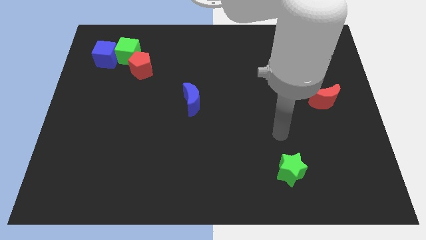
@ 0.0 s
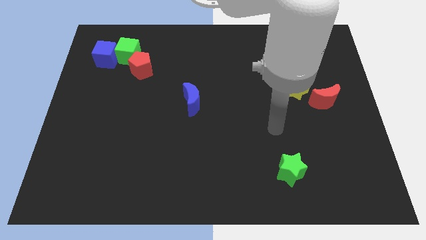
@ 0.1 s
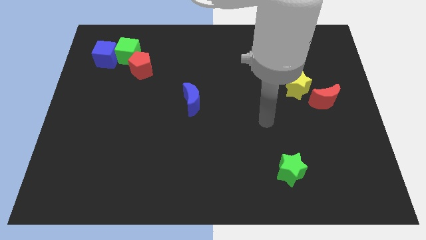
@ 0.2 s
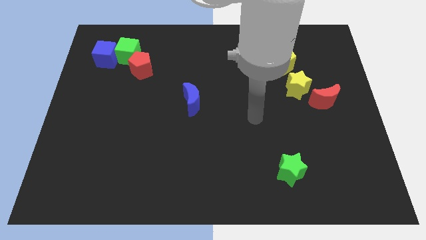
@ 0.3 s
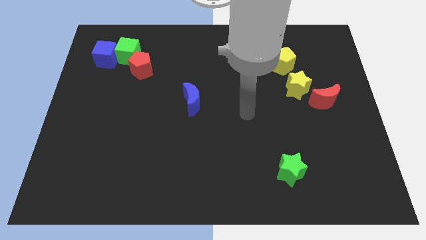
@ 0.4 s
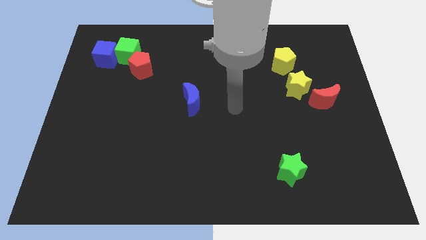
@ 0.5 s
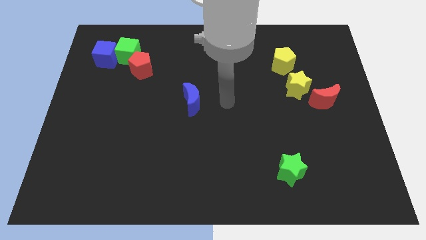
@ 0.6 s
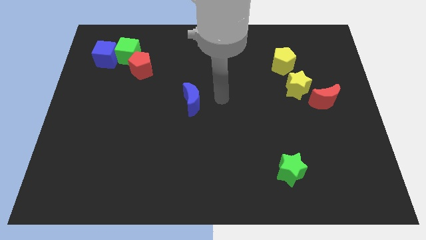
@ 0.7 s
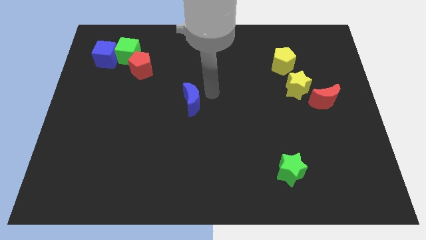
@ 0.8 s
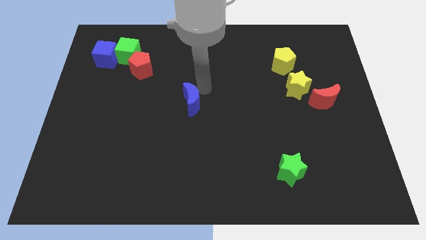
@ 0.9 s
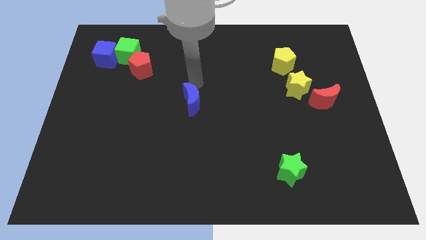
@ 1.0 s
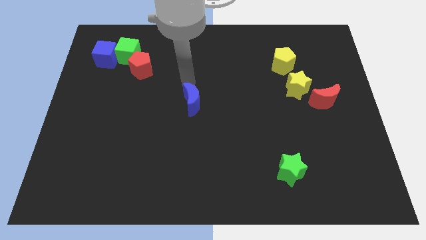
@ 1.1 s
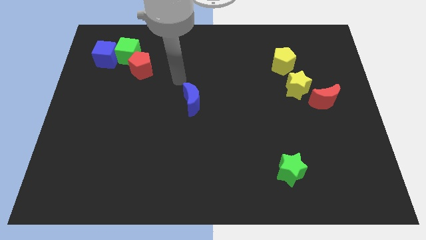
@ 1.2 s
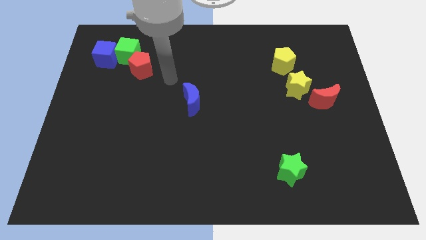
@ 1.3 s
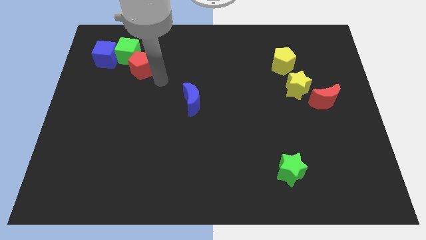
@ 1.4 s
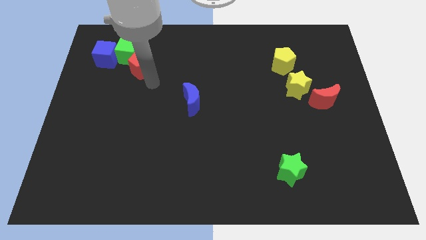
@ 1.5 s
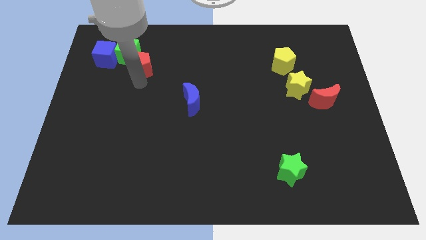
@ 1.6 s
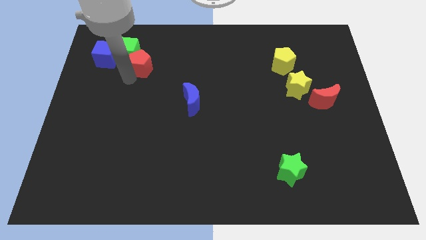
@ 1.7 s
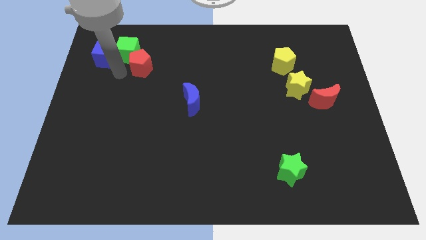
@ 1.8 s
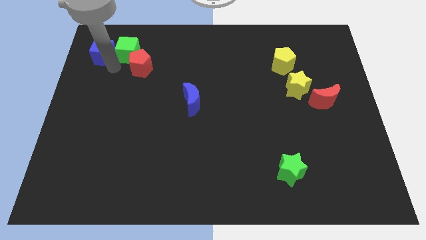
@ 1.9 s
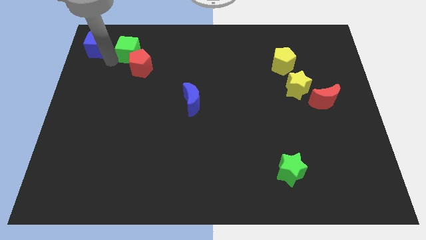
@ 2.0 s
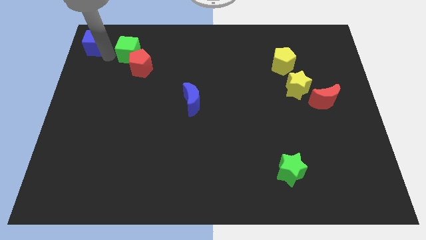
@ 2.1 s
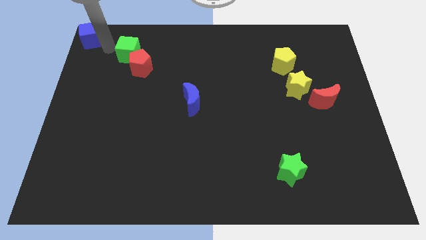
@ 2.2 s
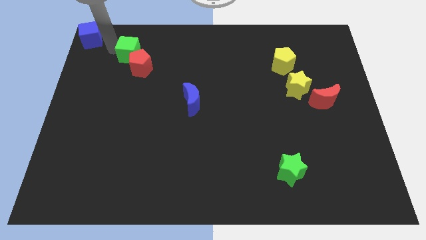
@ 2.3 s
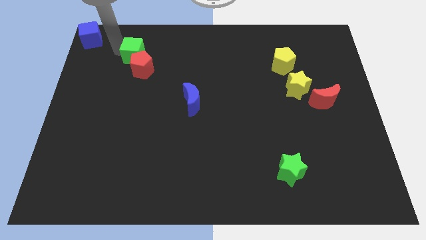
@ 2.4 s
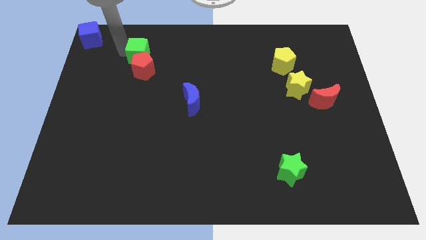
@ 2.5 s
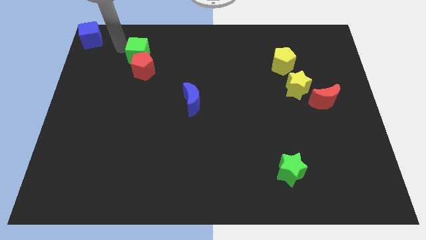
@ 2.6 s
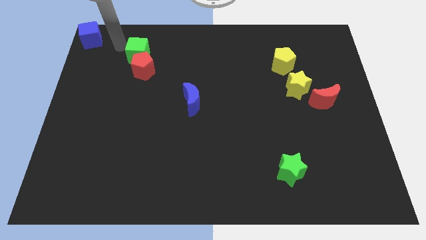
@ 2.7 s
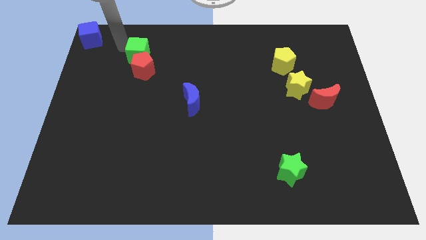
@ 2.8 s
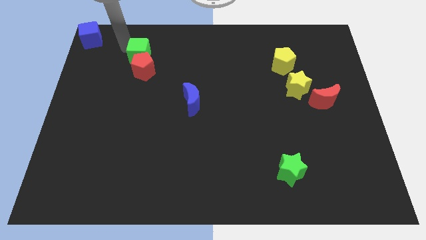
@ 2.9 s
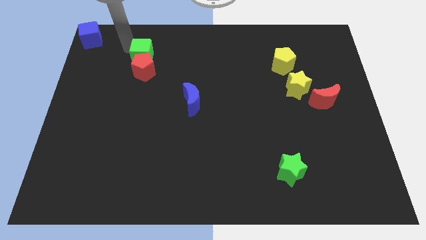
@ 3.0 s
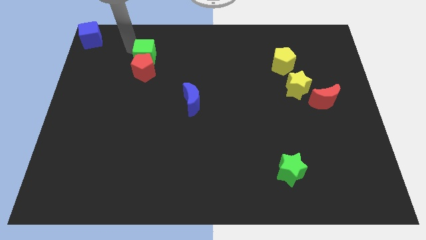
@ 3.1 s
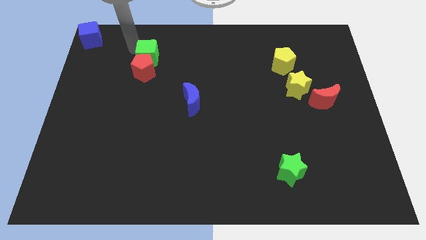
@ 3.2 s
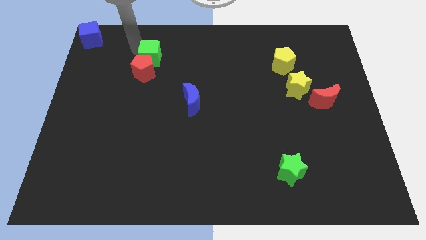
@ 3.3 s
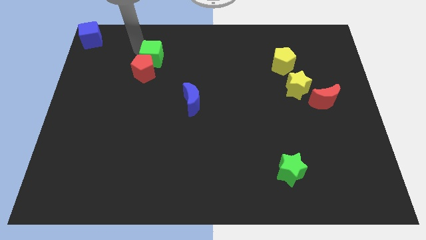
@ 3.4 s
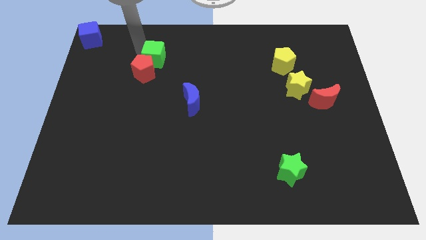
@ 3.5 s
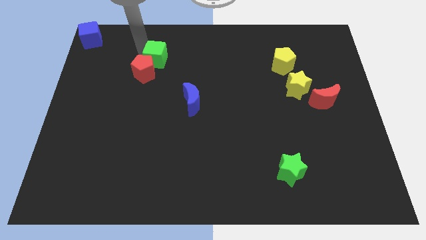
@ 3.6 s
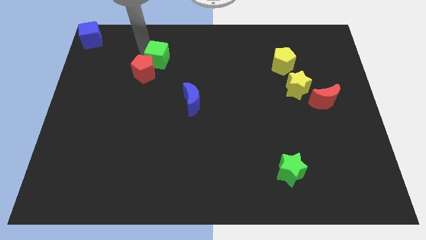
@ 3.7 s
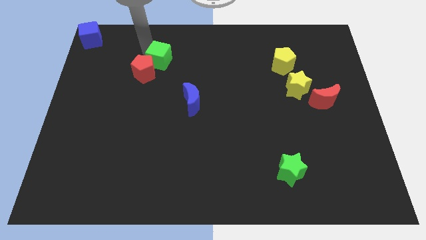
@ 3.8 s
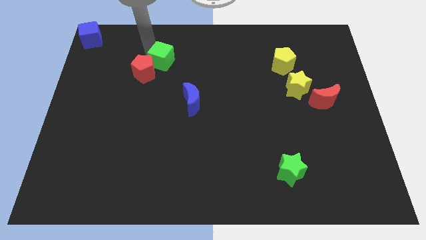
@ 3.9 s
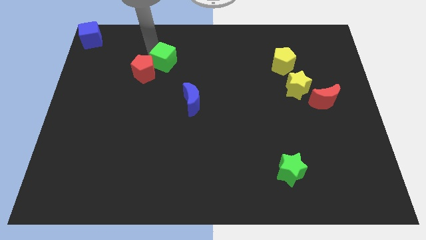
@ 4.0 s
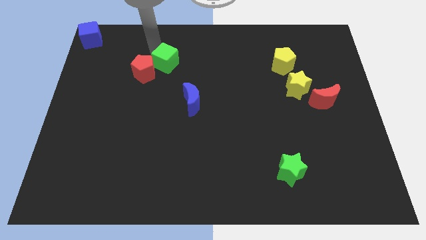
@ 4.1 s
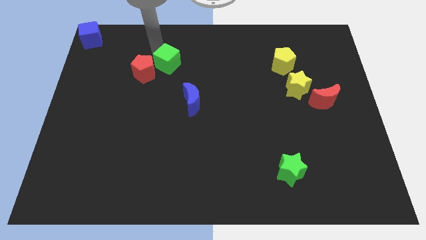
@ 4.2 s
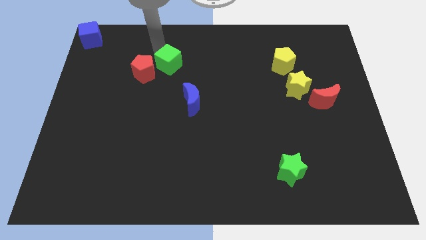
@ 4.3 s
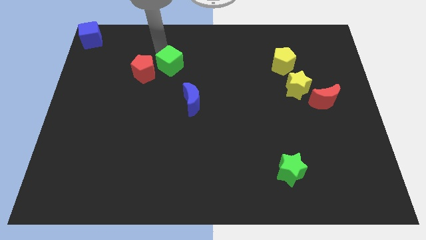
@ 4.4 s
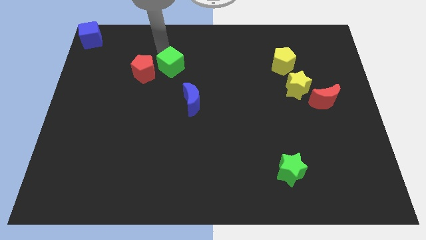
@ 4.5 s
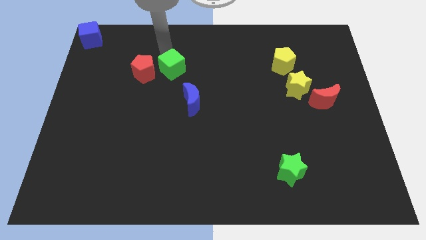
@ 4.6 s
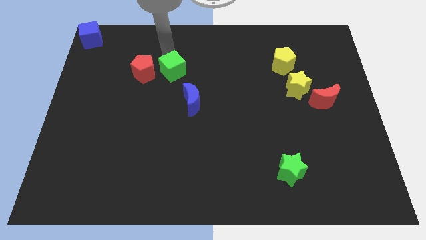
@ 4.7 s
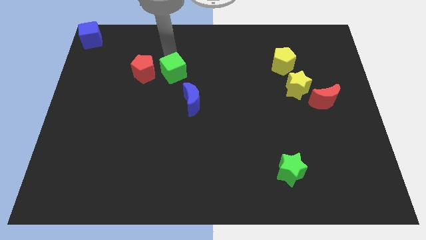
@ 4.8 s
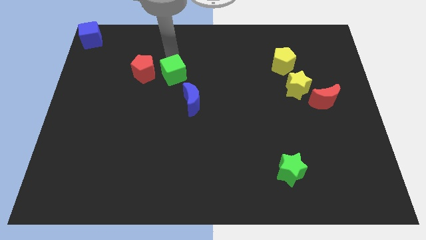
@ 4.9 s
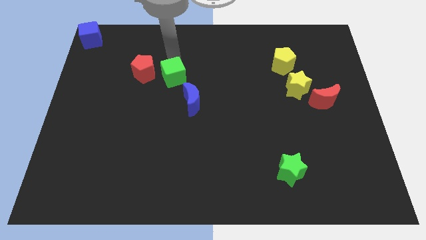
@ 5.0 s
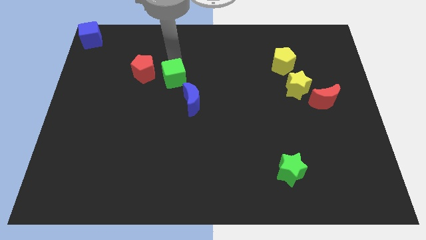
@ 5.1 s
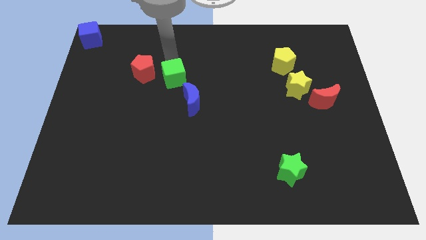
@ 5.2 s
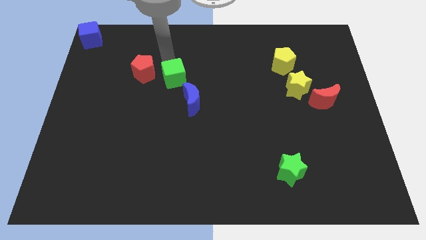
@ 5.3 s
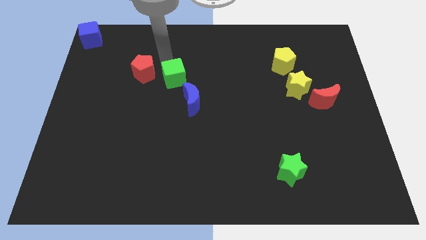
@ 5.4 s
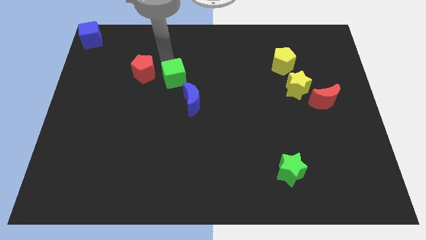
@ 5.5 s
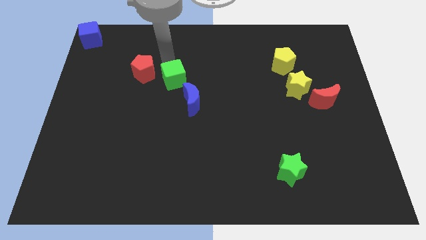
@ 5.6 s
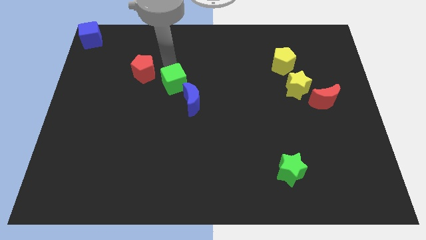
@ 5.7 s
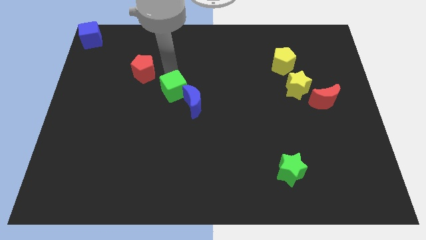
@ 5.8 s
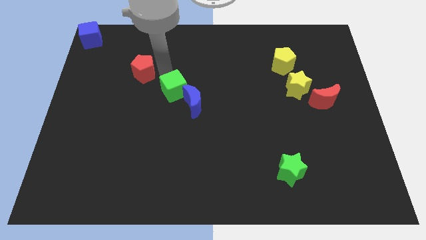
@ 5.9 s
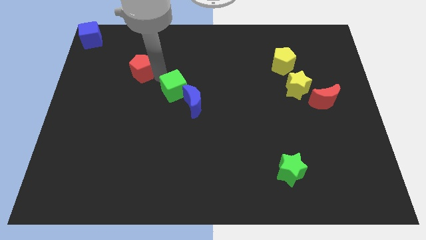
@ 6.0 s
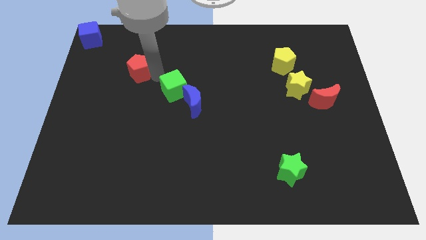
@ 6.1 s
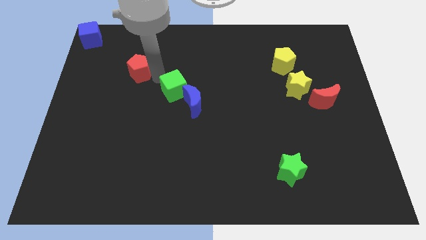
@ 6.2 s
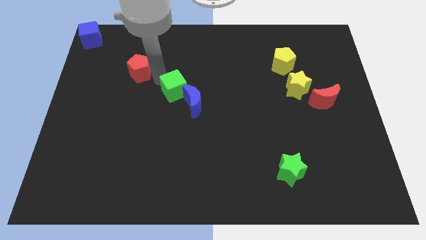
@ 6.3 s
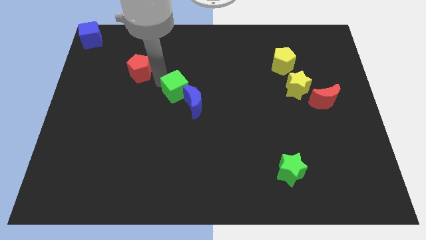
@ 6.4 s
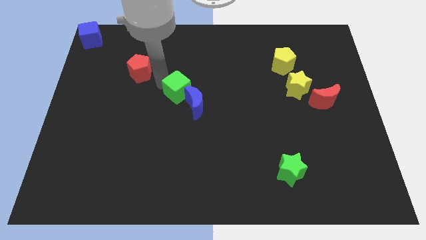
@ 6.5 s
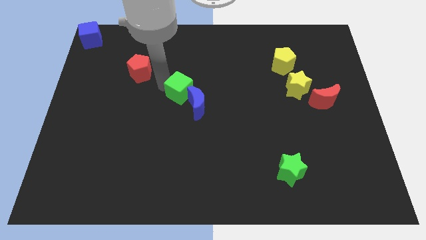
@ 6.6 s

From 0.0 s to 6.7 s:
move the green cube to the blue moon

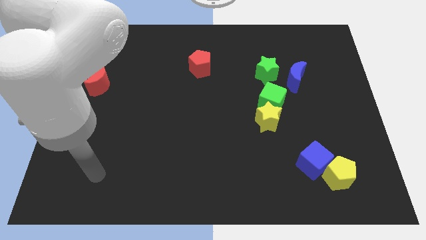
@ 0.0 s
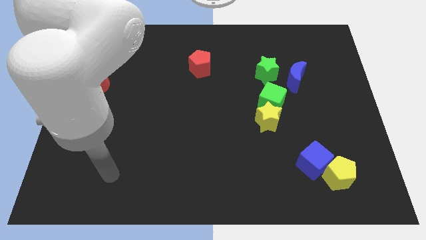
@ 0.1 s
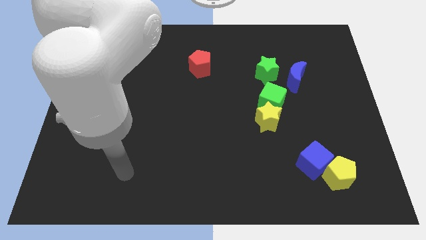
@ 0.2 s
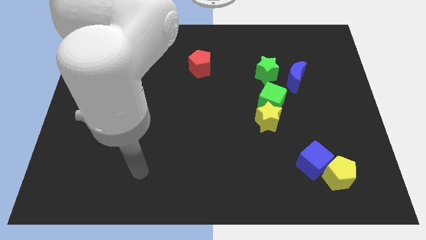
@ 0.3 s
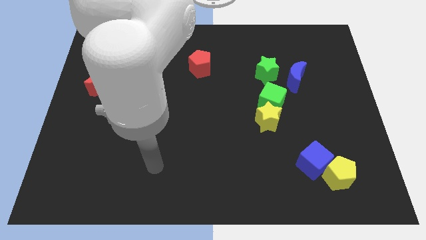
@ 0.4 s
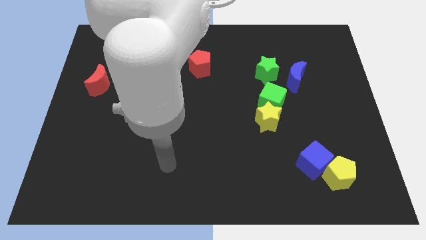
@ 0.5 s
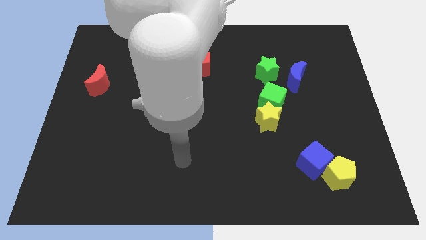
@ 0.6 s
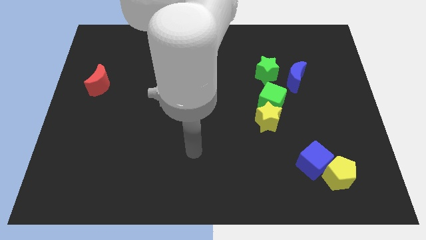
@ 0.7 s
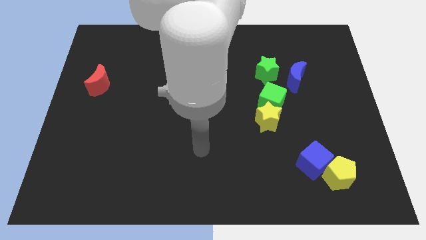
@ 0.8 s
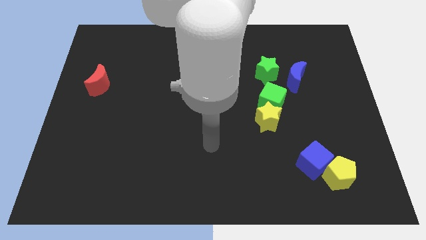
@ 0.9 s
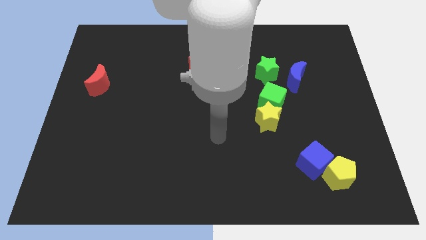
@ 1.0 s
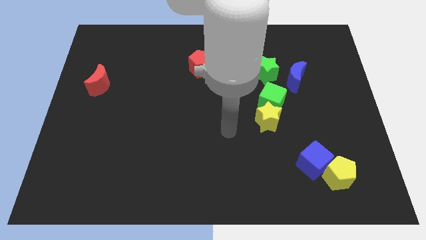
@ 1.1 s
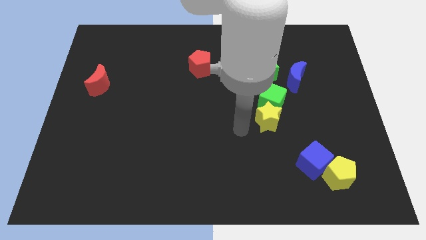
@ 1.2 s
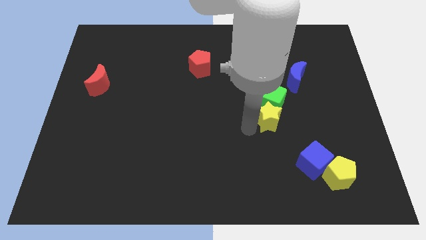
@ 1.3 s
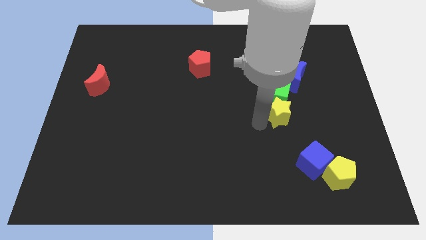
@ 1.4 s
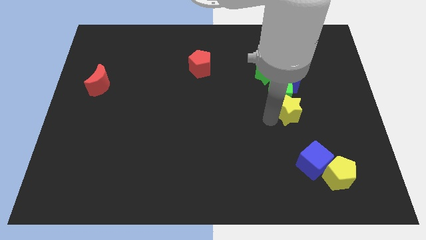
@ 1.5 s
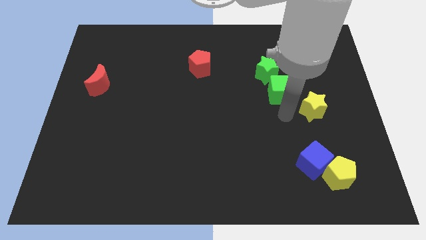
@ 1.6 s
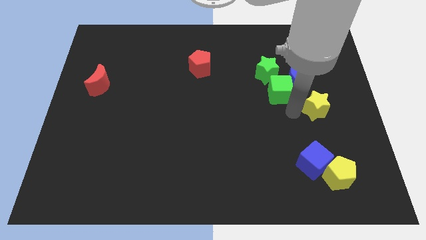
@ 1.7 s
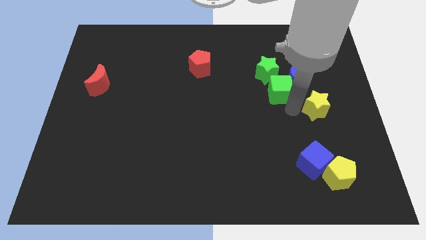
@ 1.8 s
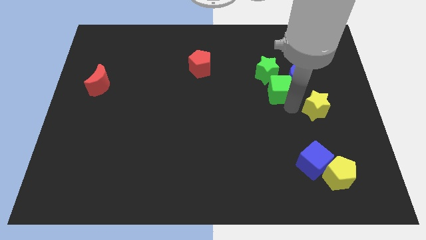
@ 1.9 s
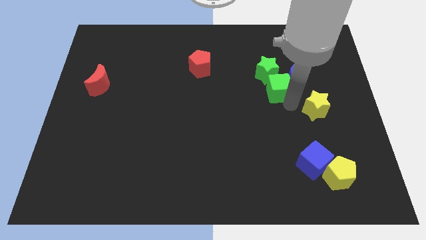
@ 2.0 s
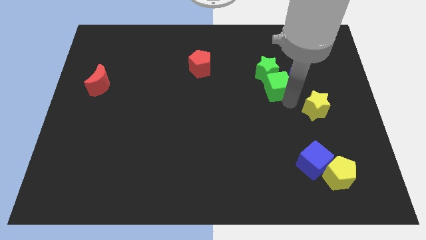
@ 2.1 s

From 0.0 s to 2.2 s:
slide the green cube next to the green star
